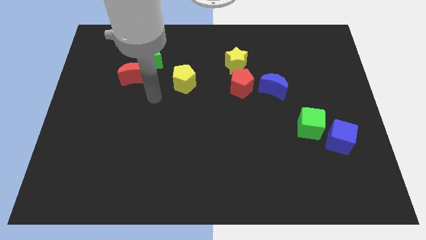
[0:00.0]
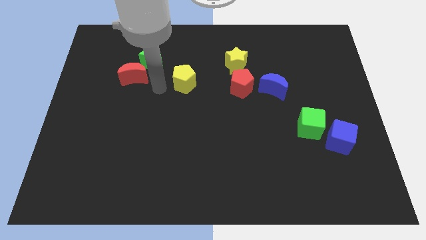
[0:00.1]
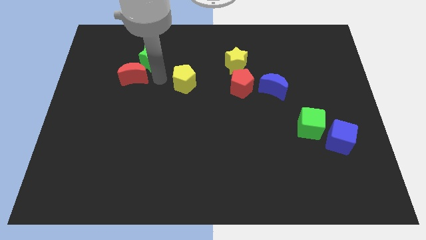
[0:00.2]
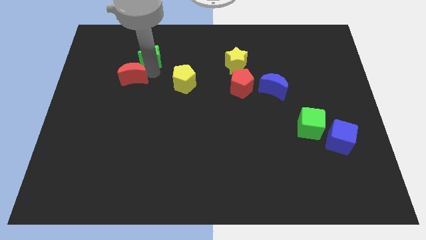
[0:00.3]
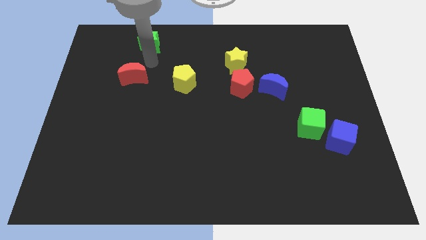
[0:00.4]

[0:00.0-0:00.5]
pull the red moon apart from the green star

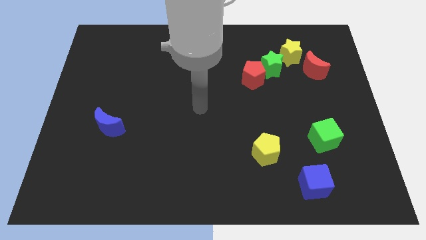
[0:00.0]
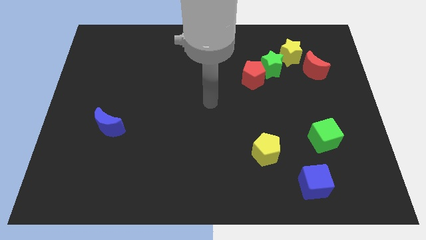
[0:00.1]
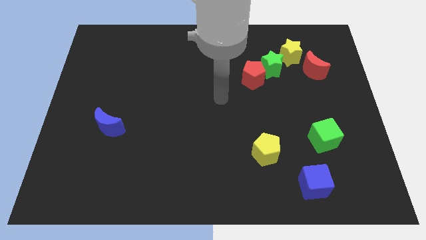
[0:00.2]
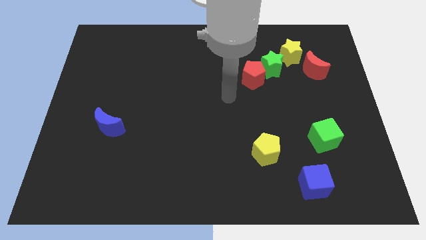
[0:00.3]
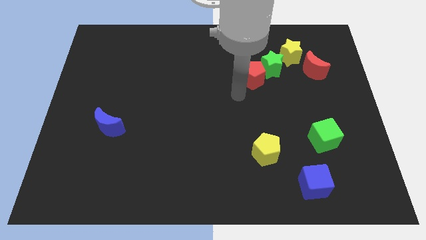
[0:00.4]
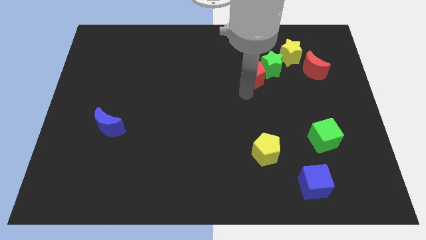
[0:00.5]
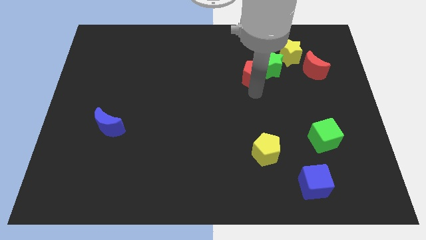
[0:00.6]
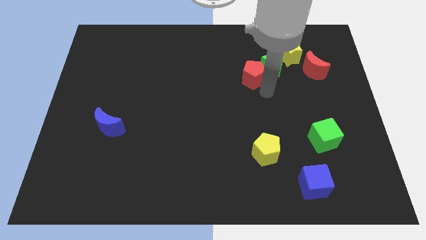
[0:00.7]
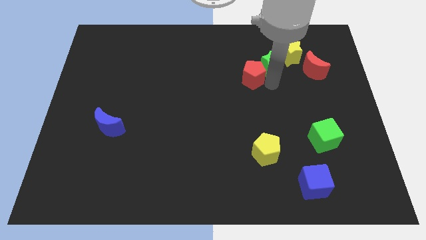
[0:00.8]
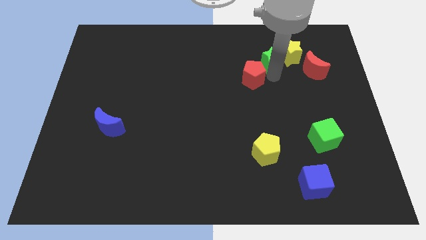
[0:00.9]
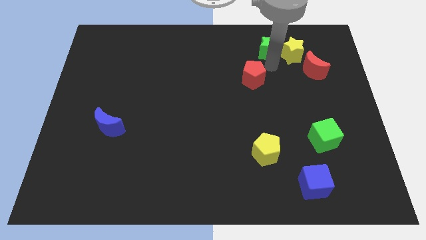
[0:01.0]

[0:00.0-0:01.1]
move the red pentagon away from the green star

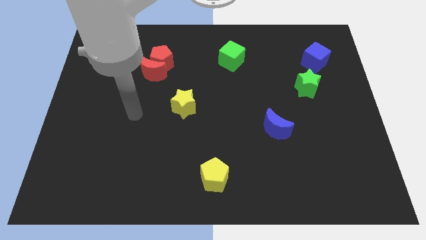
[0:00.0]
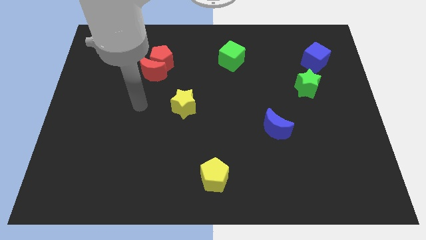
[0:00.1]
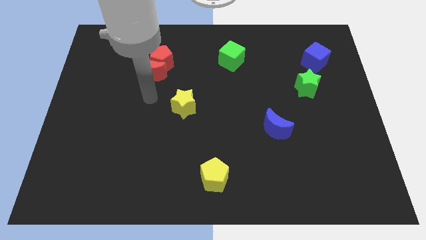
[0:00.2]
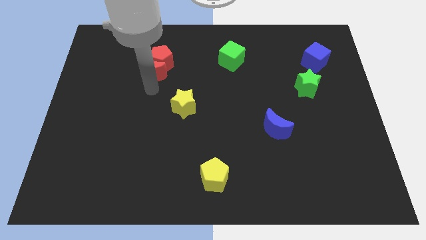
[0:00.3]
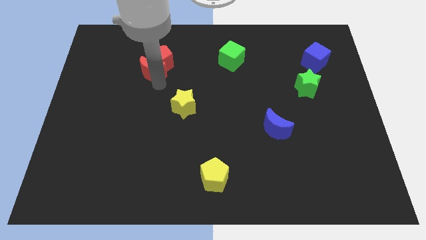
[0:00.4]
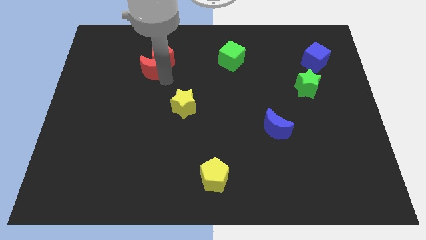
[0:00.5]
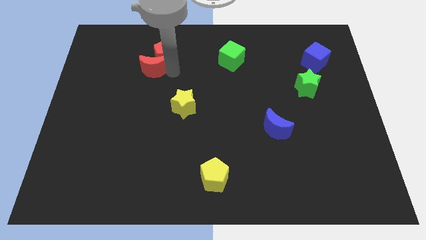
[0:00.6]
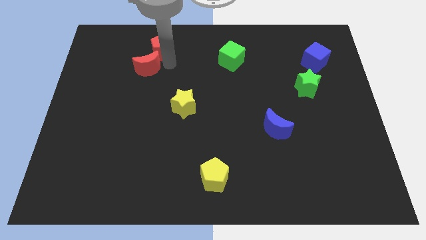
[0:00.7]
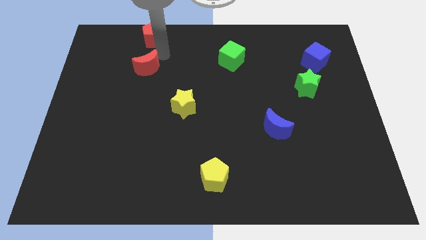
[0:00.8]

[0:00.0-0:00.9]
pull the red moon apart from the red pentagon

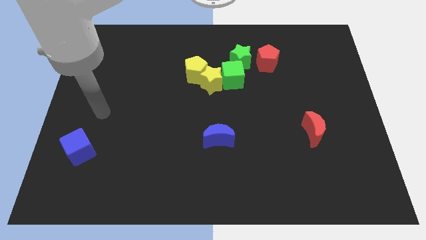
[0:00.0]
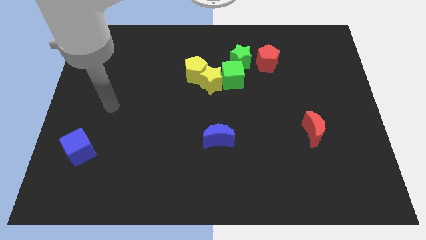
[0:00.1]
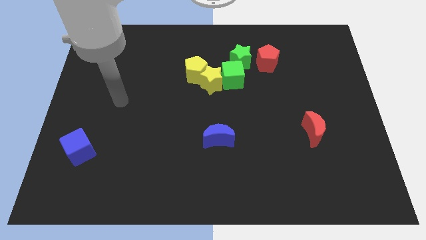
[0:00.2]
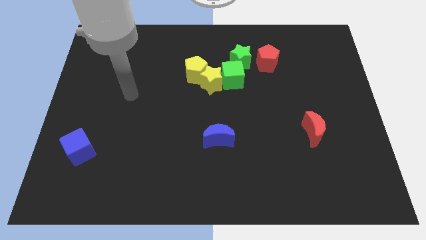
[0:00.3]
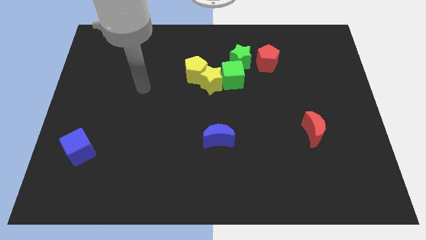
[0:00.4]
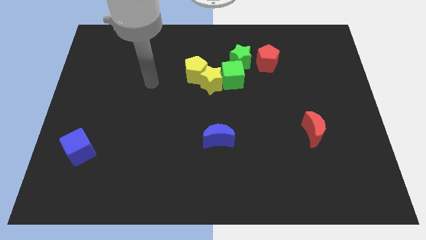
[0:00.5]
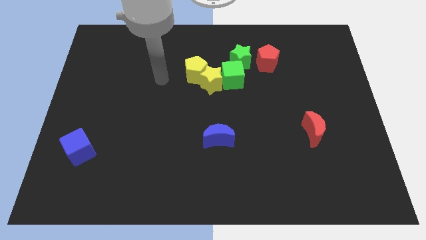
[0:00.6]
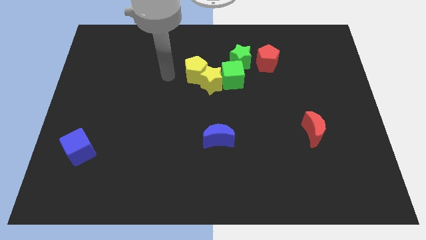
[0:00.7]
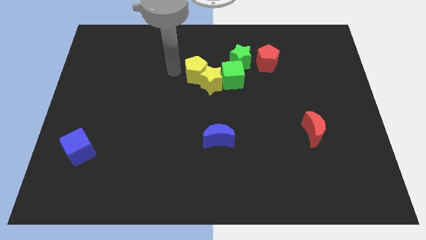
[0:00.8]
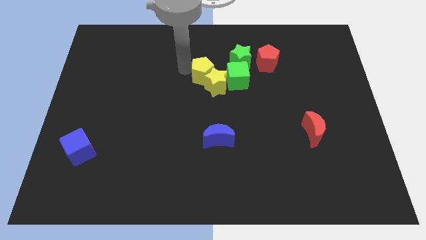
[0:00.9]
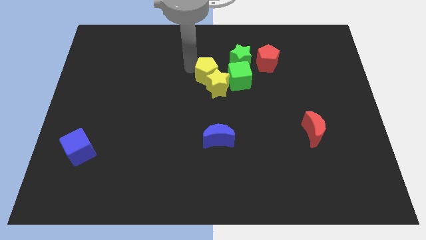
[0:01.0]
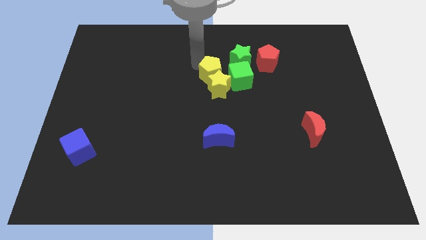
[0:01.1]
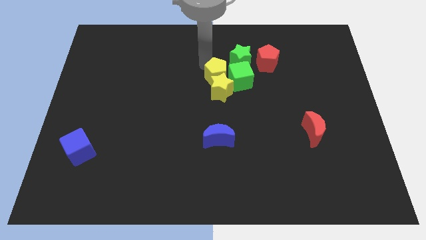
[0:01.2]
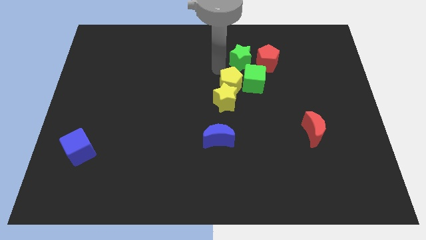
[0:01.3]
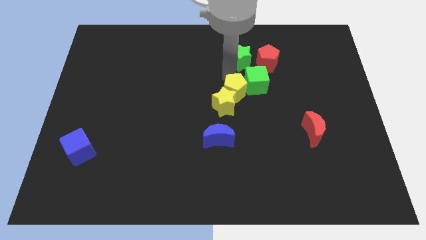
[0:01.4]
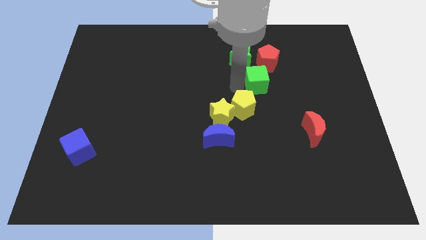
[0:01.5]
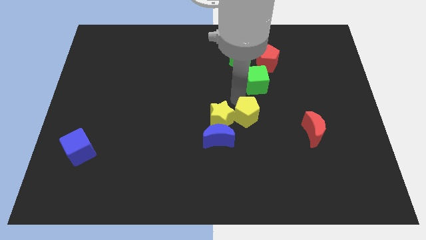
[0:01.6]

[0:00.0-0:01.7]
separate the yellow star from the green cube and yellow pentagon

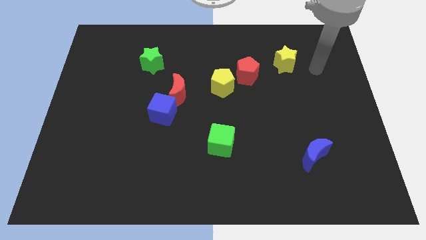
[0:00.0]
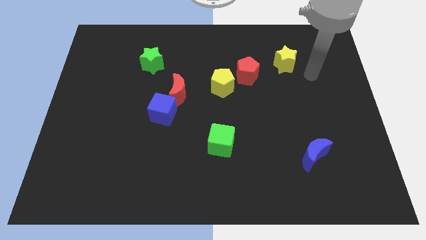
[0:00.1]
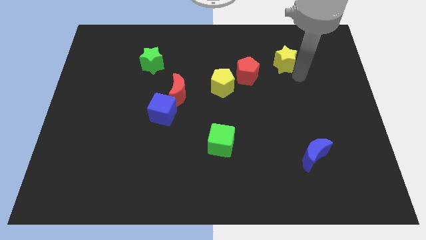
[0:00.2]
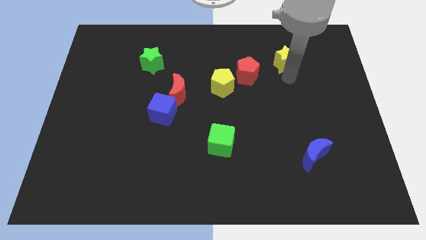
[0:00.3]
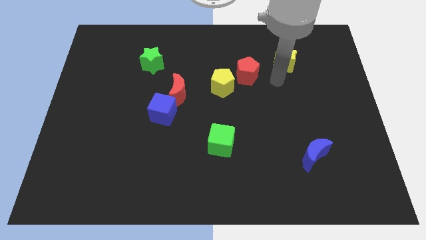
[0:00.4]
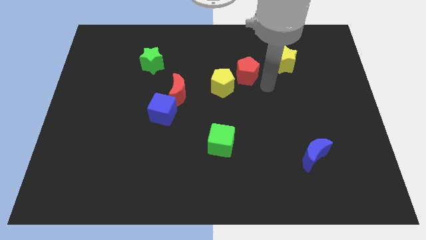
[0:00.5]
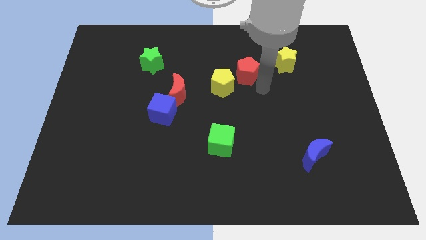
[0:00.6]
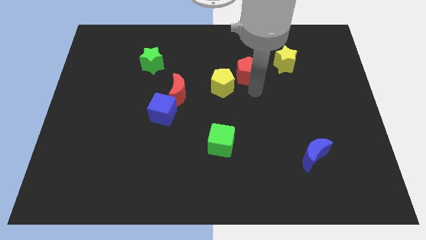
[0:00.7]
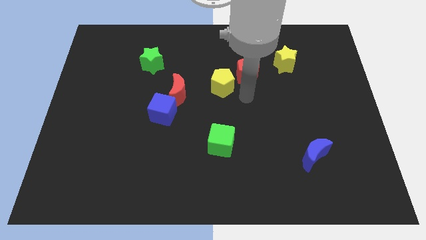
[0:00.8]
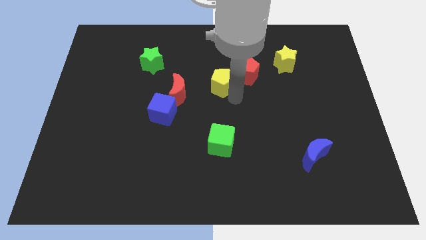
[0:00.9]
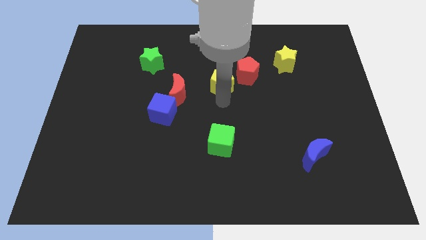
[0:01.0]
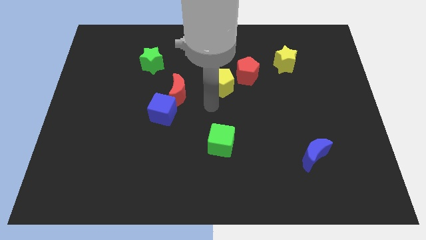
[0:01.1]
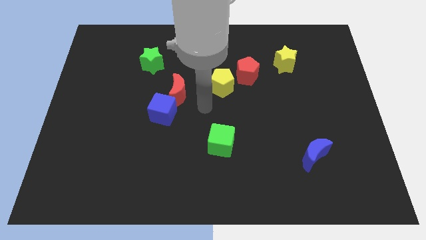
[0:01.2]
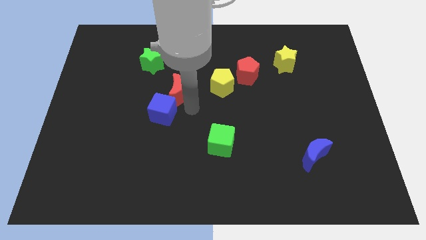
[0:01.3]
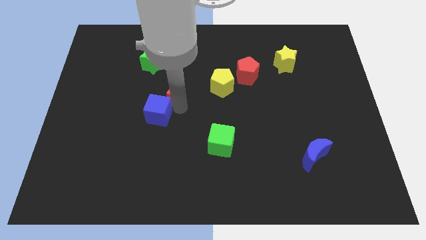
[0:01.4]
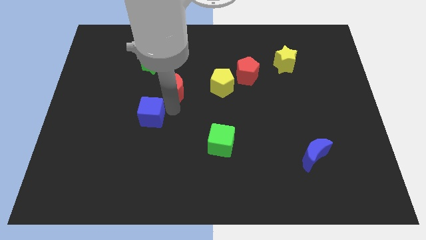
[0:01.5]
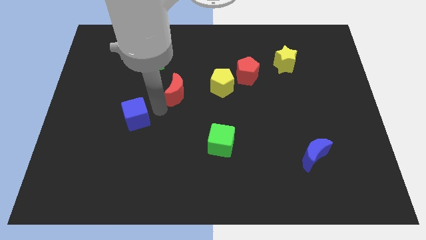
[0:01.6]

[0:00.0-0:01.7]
move the red moon away from the blue cube

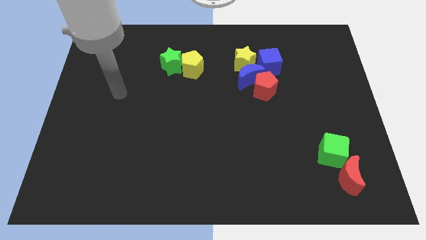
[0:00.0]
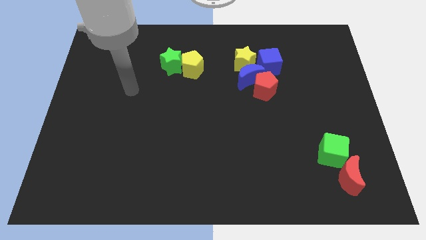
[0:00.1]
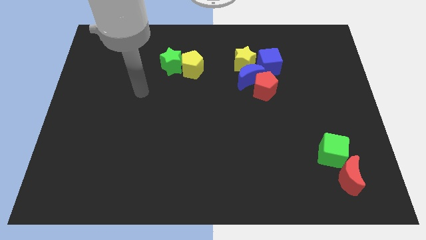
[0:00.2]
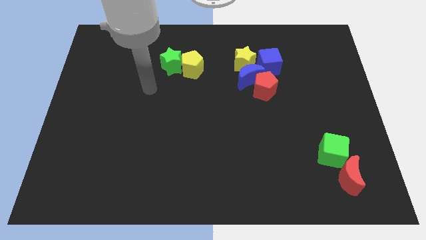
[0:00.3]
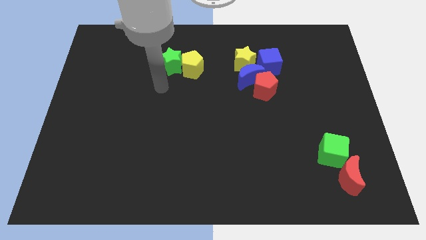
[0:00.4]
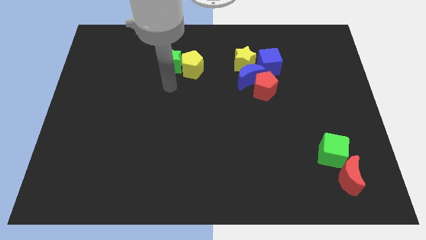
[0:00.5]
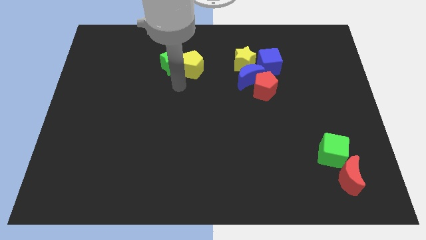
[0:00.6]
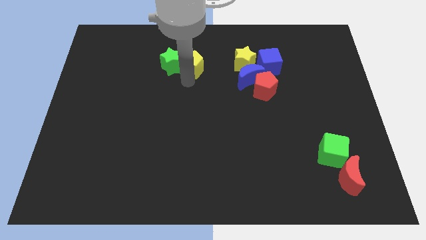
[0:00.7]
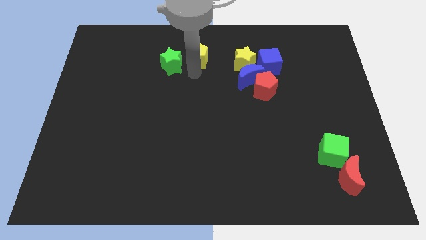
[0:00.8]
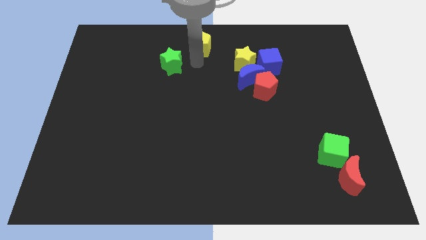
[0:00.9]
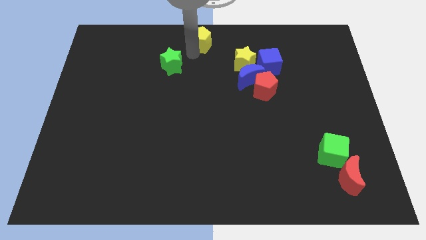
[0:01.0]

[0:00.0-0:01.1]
pull the green star apart from the yellow pentagon

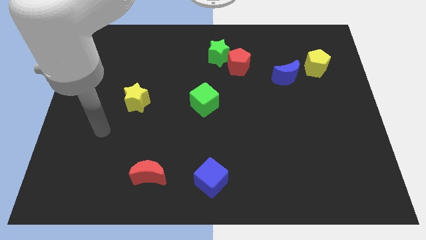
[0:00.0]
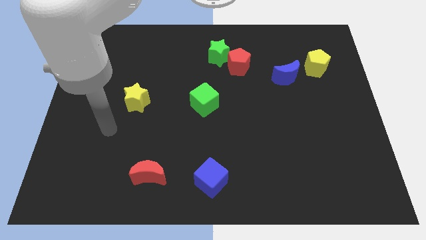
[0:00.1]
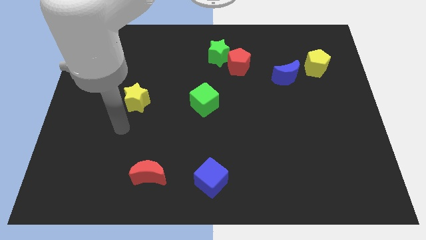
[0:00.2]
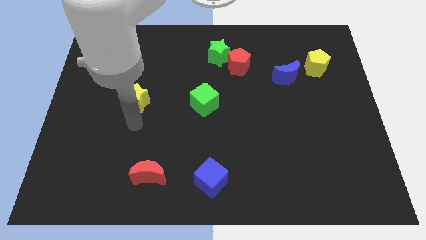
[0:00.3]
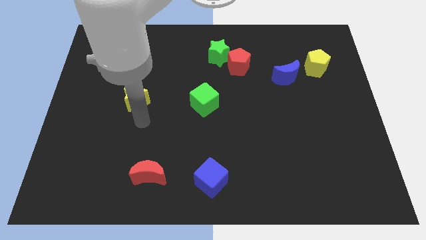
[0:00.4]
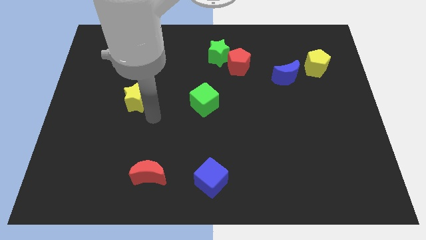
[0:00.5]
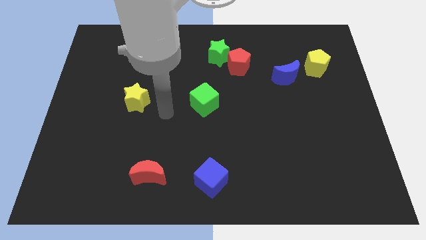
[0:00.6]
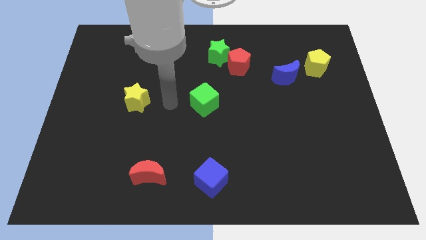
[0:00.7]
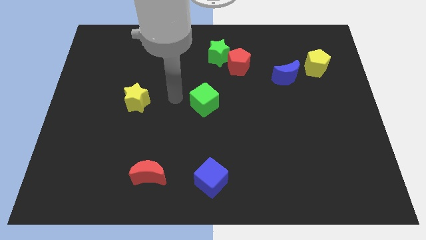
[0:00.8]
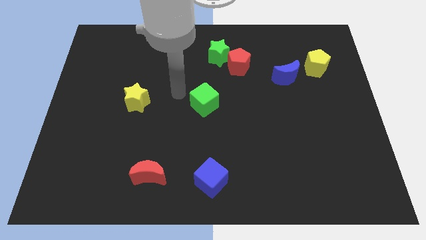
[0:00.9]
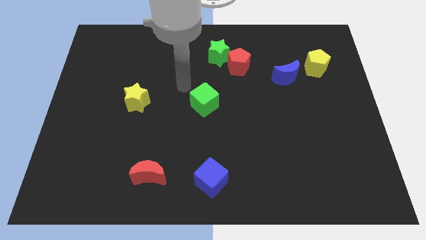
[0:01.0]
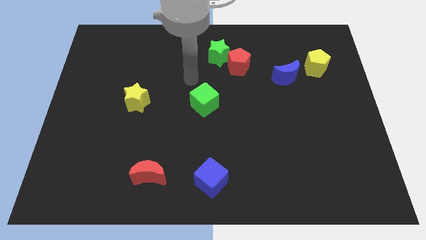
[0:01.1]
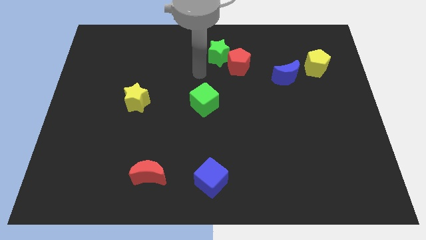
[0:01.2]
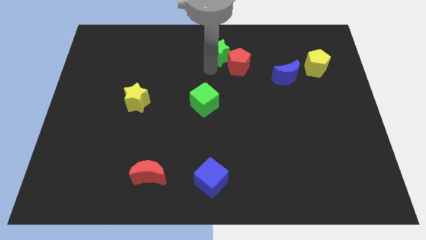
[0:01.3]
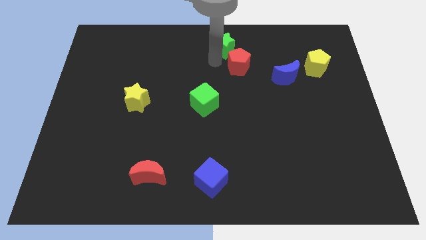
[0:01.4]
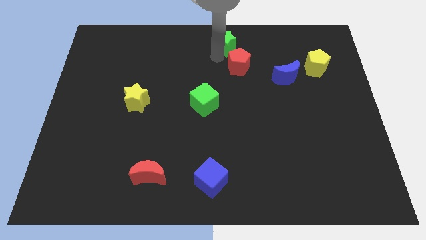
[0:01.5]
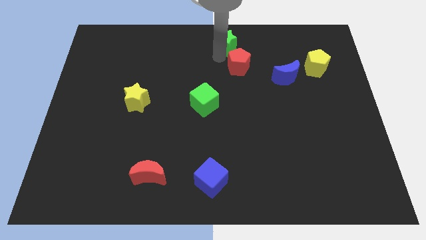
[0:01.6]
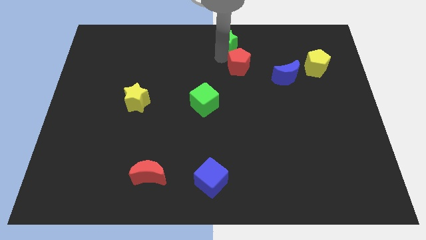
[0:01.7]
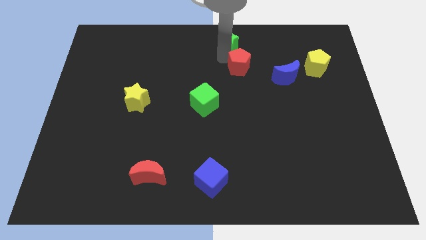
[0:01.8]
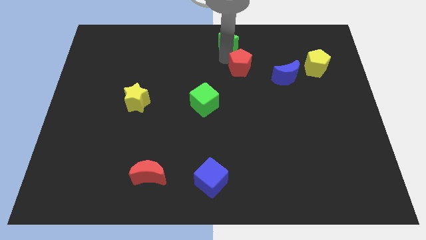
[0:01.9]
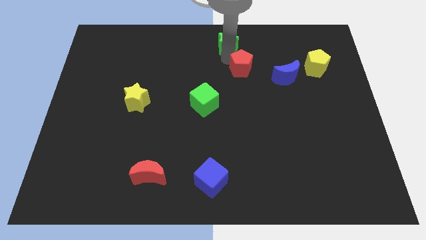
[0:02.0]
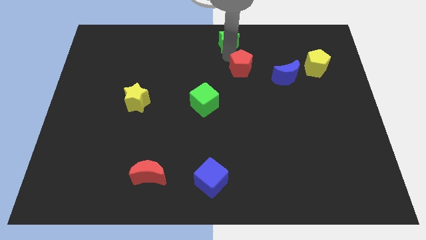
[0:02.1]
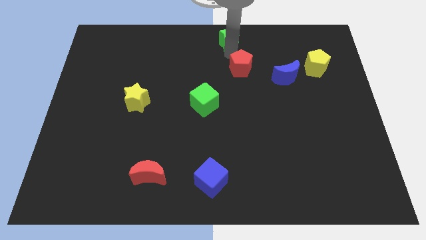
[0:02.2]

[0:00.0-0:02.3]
pull the red pentagon apart from the green star

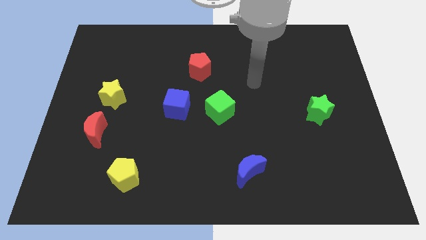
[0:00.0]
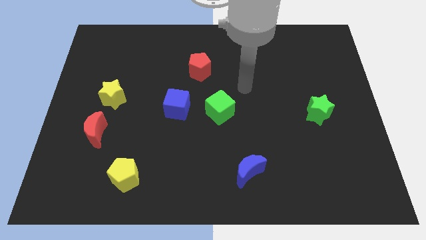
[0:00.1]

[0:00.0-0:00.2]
separate the blue cube from the green cube
